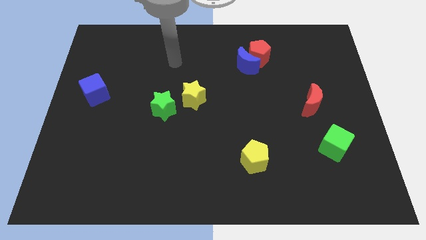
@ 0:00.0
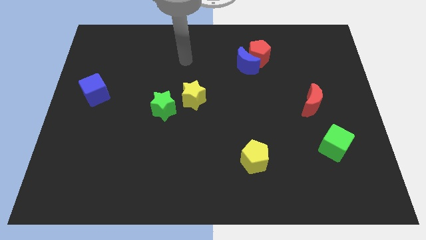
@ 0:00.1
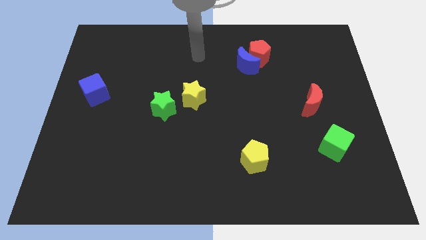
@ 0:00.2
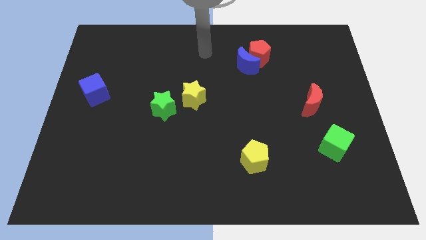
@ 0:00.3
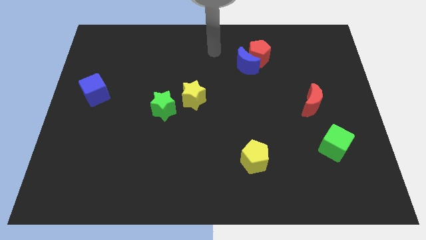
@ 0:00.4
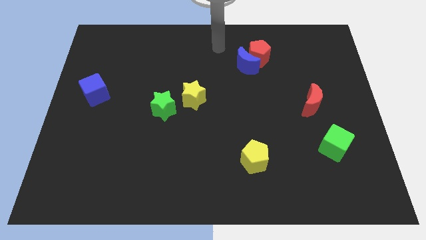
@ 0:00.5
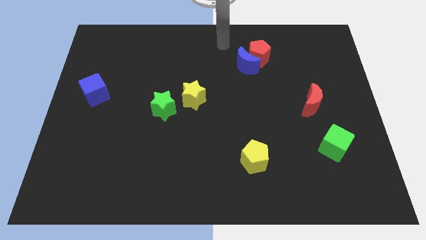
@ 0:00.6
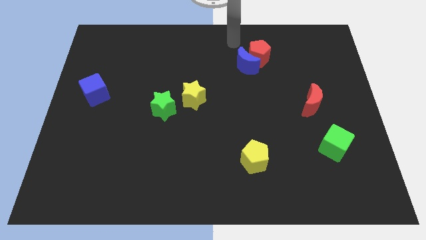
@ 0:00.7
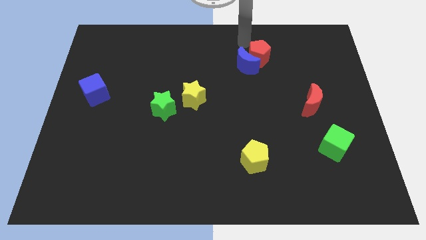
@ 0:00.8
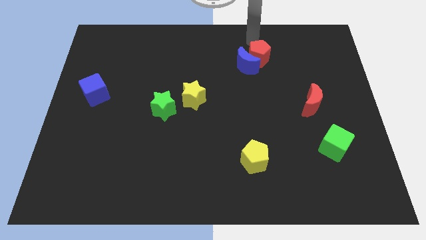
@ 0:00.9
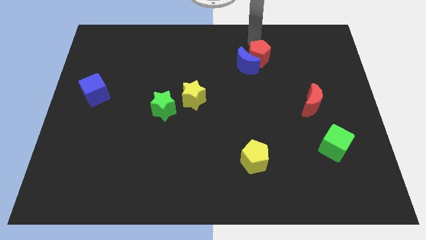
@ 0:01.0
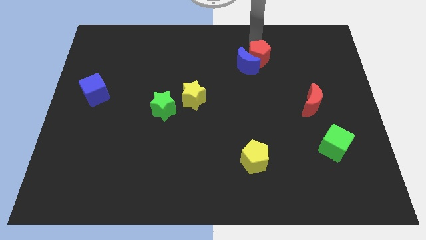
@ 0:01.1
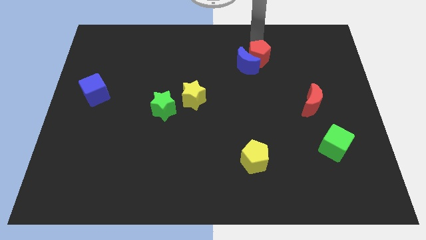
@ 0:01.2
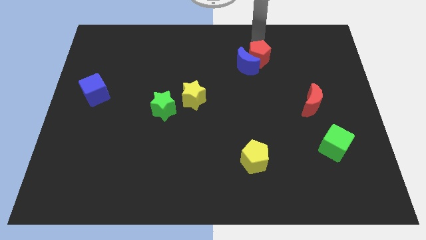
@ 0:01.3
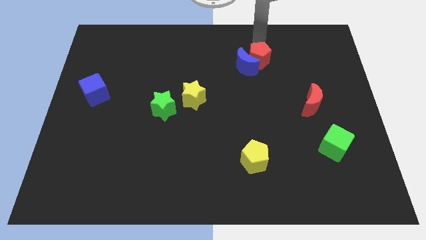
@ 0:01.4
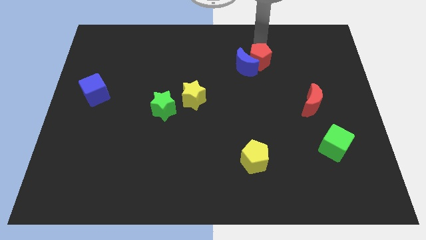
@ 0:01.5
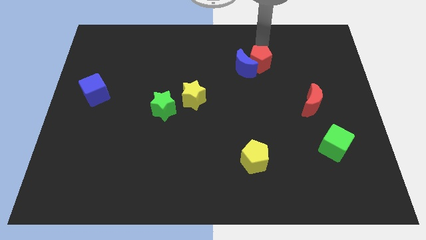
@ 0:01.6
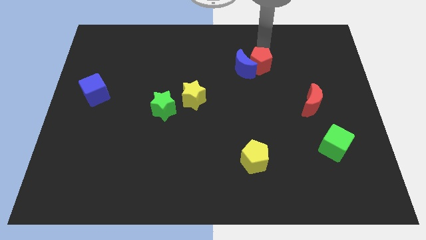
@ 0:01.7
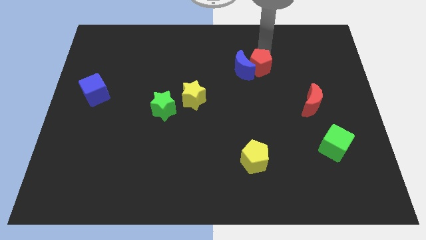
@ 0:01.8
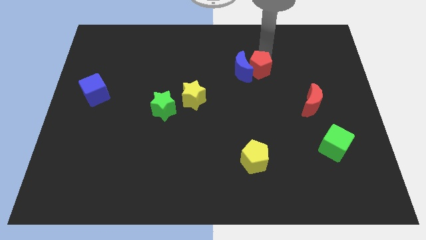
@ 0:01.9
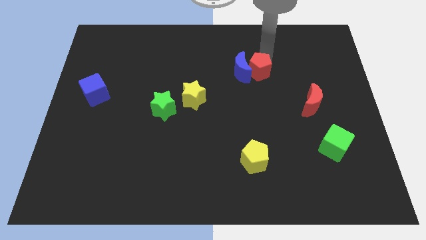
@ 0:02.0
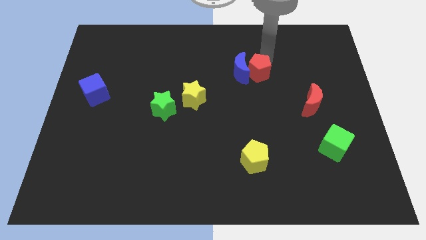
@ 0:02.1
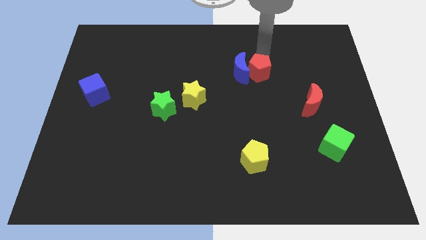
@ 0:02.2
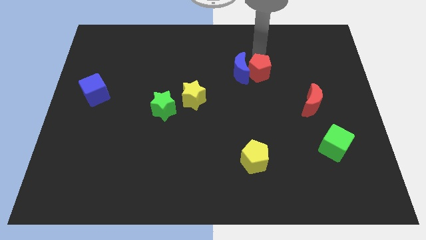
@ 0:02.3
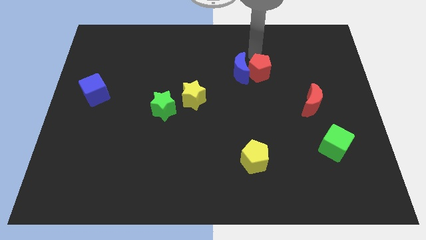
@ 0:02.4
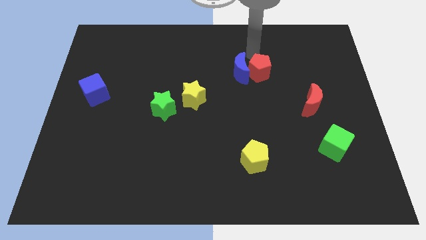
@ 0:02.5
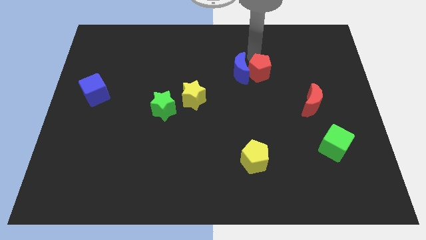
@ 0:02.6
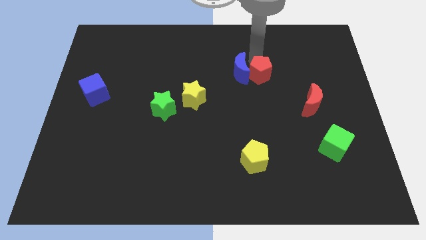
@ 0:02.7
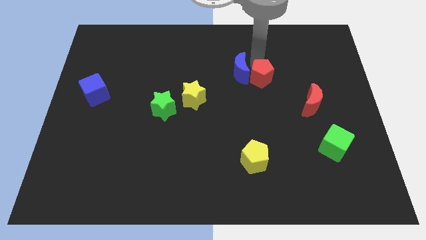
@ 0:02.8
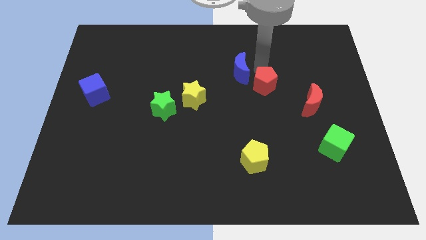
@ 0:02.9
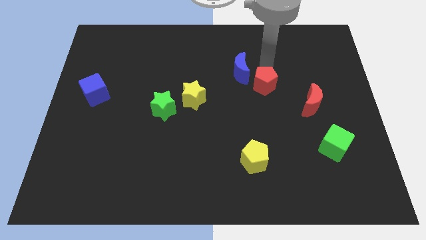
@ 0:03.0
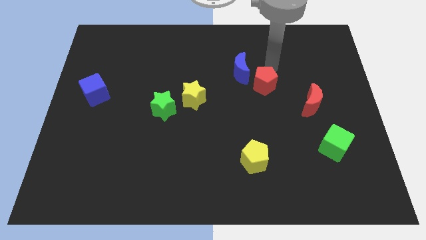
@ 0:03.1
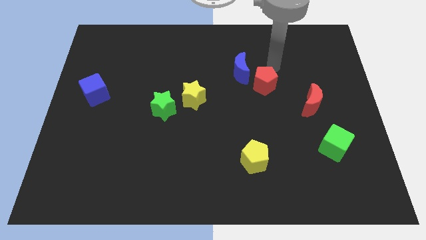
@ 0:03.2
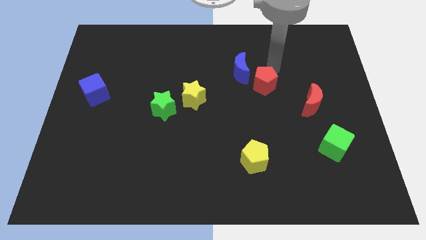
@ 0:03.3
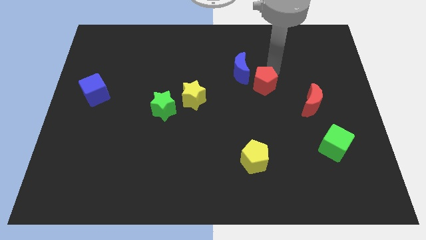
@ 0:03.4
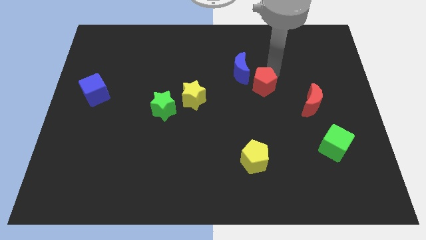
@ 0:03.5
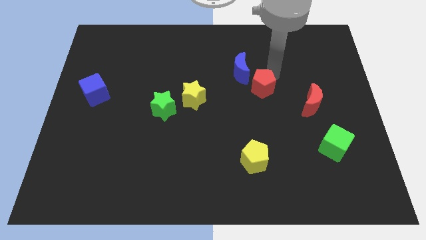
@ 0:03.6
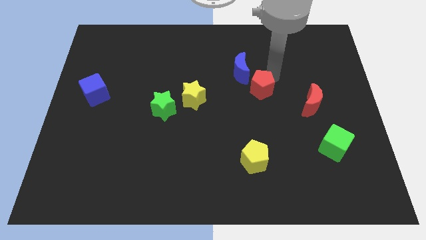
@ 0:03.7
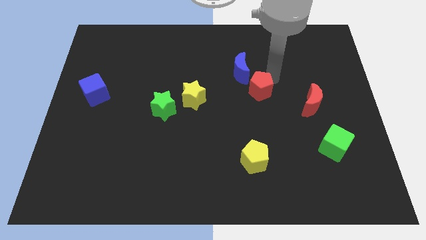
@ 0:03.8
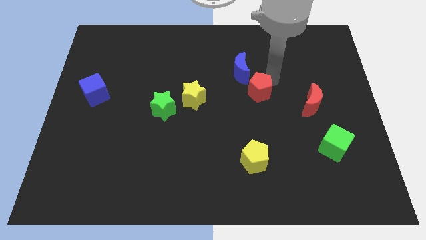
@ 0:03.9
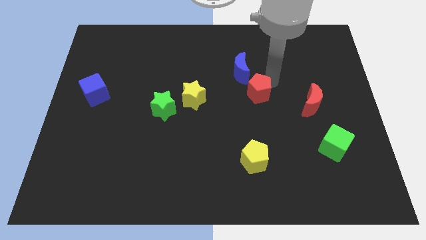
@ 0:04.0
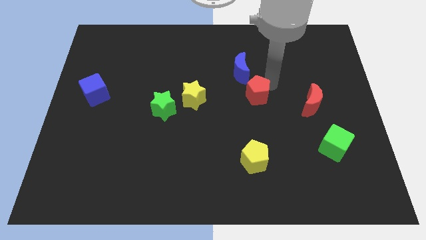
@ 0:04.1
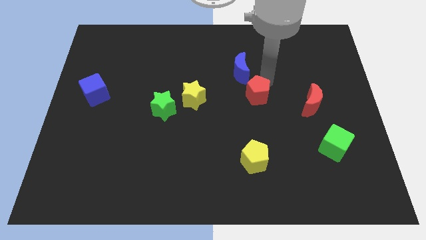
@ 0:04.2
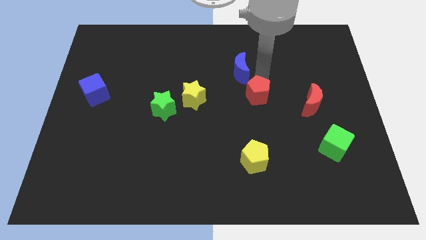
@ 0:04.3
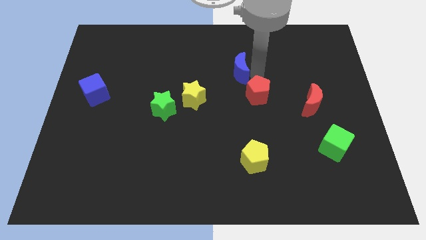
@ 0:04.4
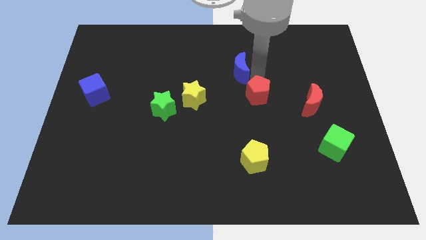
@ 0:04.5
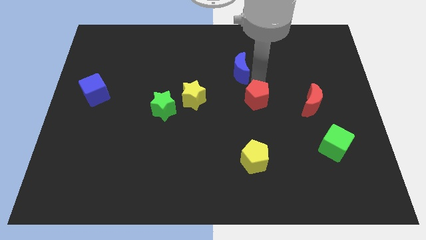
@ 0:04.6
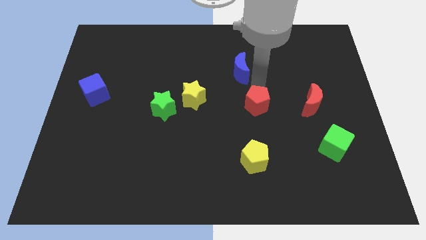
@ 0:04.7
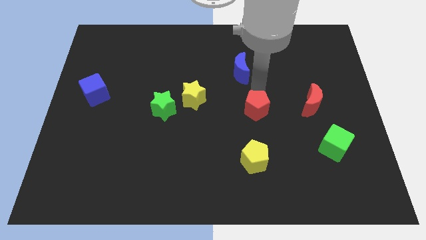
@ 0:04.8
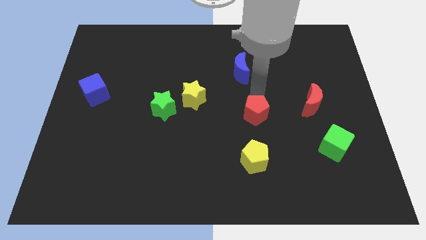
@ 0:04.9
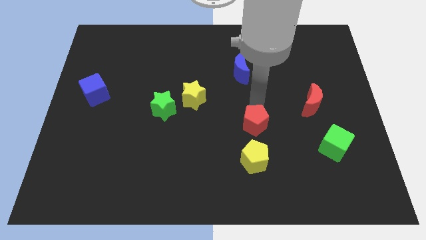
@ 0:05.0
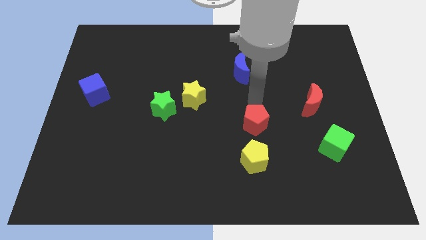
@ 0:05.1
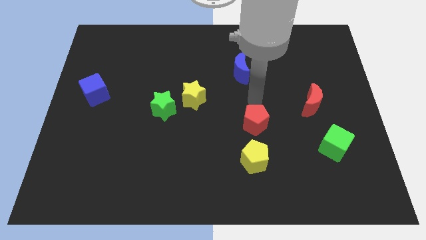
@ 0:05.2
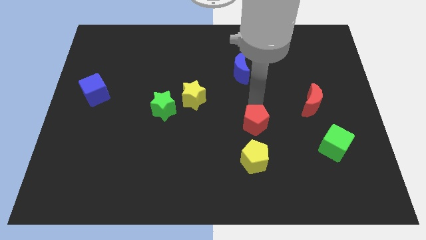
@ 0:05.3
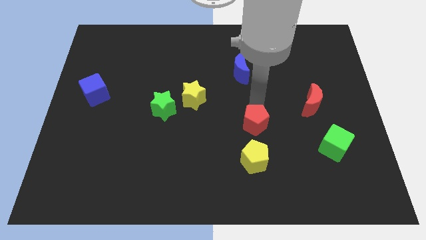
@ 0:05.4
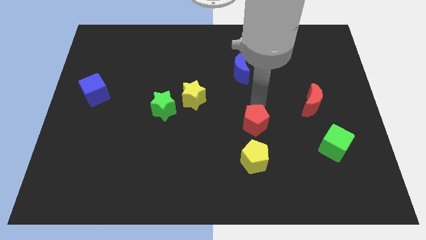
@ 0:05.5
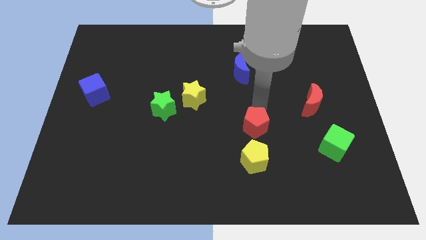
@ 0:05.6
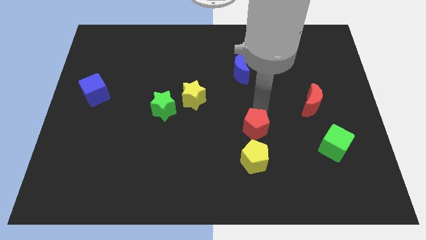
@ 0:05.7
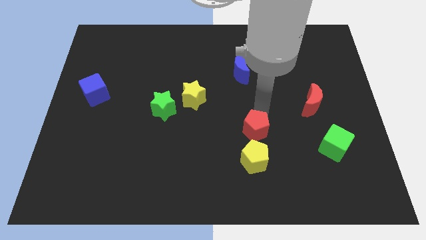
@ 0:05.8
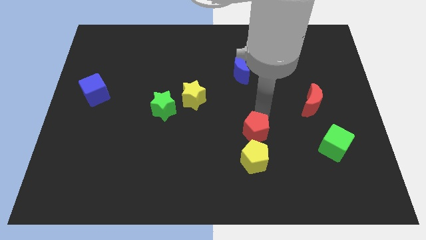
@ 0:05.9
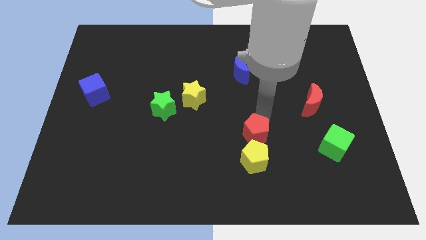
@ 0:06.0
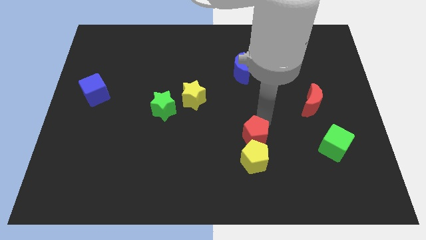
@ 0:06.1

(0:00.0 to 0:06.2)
put the red pentagon next to the yellow pentagon
